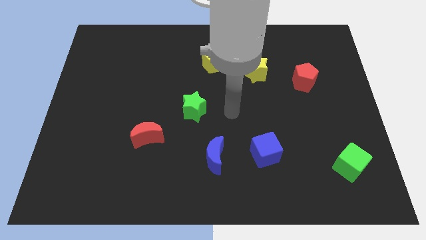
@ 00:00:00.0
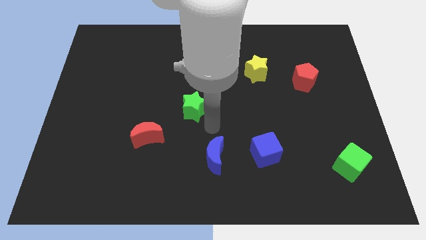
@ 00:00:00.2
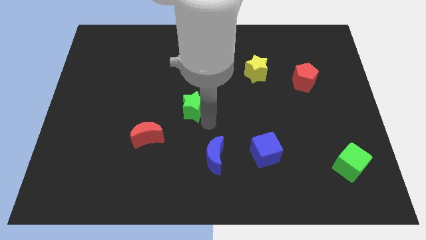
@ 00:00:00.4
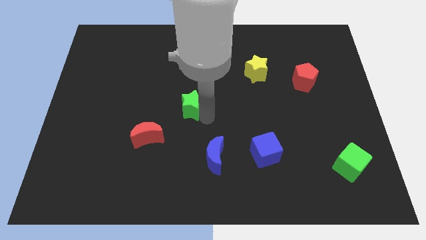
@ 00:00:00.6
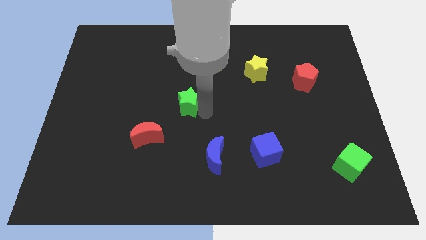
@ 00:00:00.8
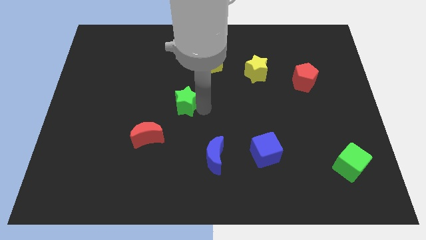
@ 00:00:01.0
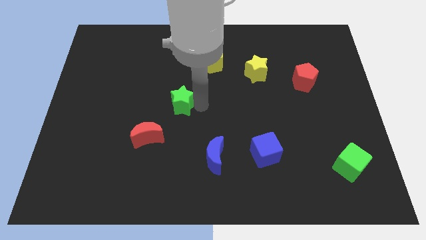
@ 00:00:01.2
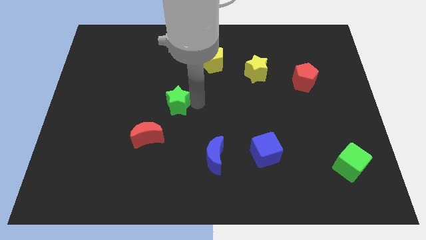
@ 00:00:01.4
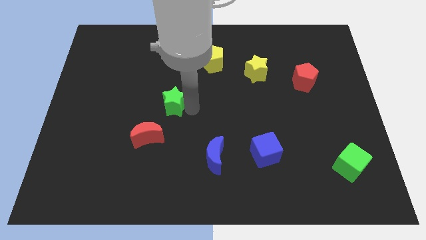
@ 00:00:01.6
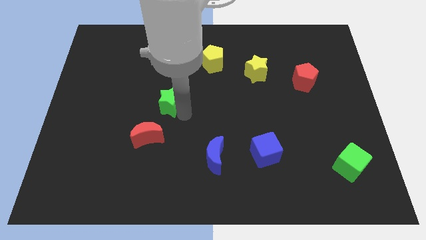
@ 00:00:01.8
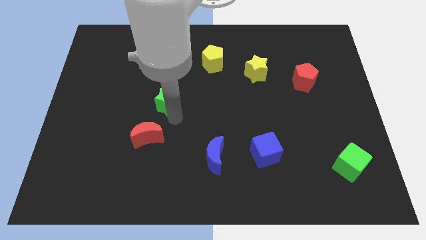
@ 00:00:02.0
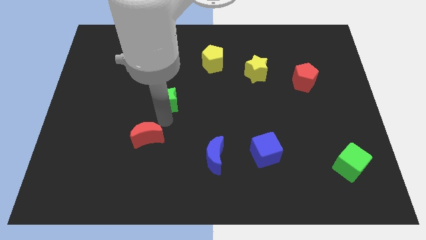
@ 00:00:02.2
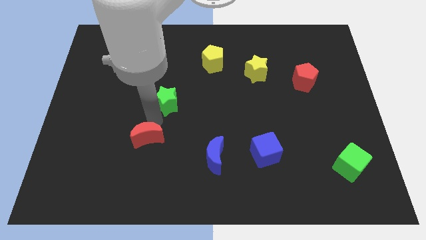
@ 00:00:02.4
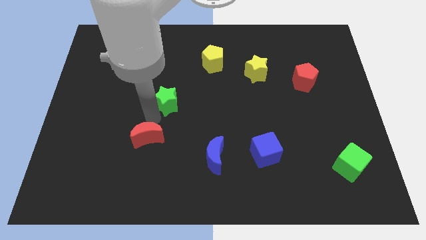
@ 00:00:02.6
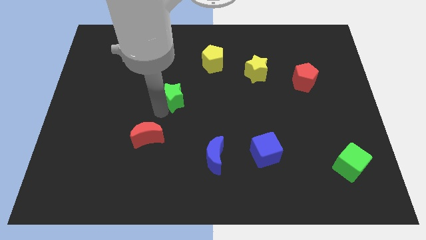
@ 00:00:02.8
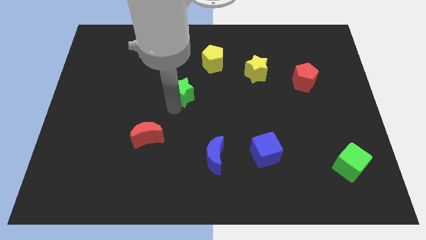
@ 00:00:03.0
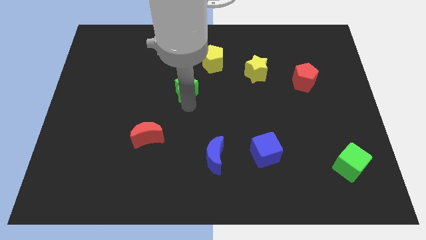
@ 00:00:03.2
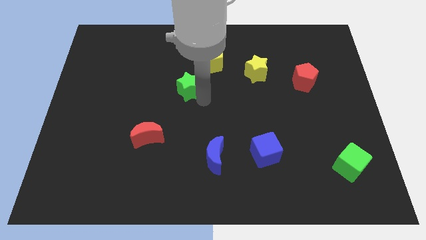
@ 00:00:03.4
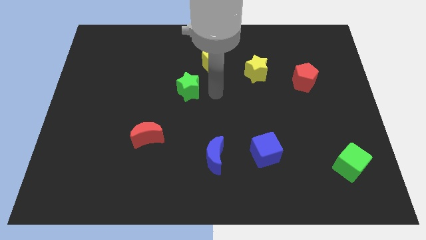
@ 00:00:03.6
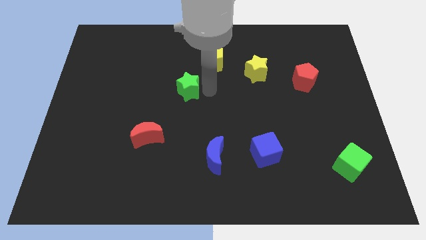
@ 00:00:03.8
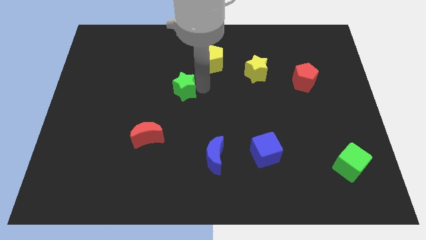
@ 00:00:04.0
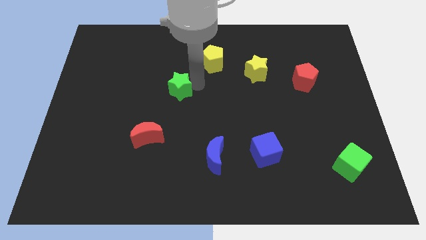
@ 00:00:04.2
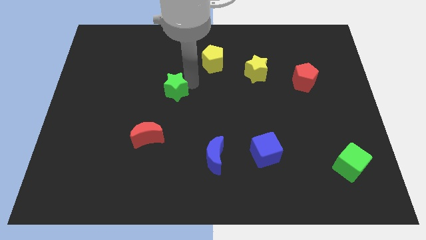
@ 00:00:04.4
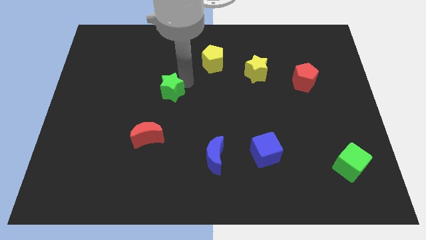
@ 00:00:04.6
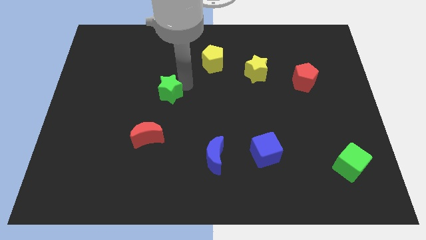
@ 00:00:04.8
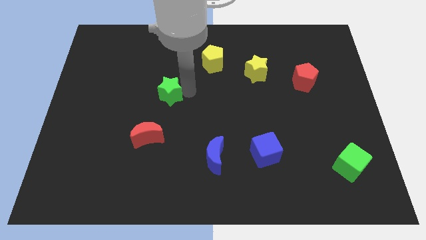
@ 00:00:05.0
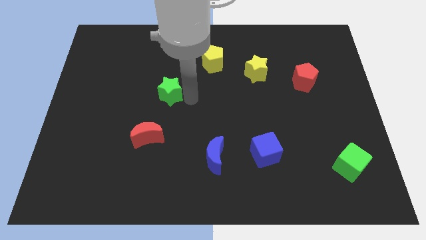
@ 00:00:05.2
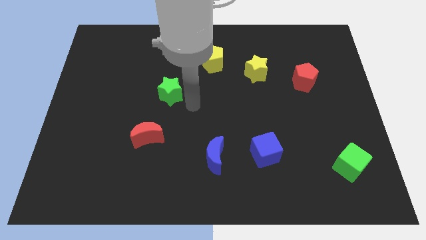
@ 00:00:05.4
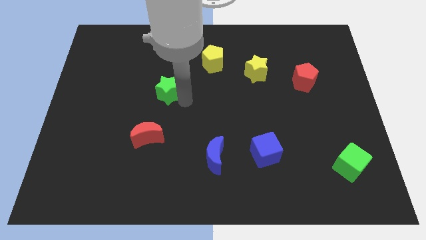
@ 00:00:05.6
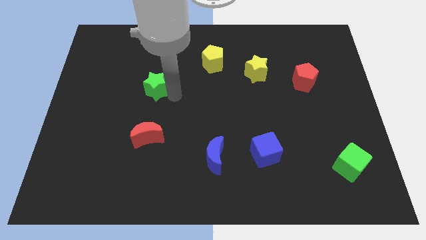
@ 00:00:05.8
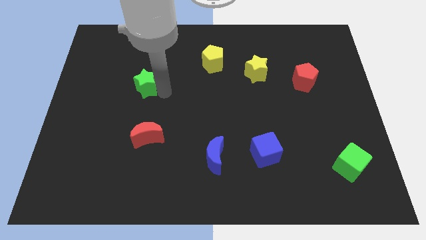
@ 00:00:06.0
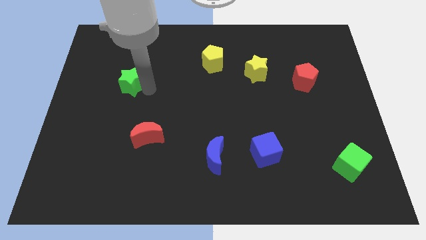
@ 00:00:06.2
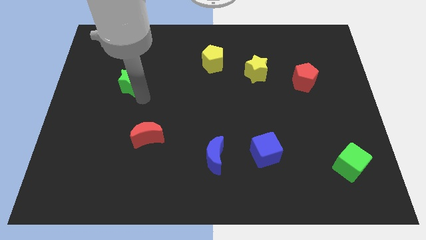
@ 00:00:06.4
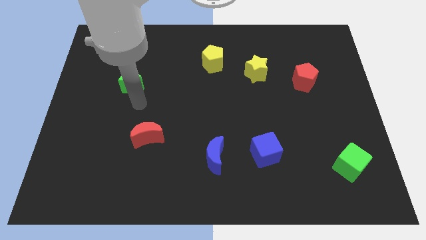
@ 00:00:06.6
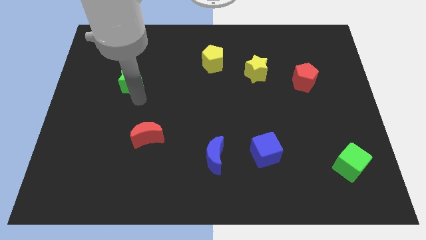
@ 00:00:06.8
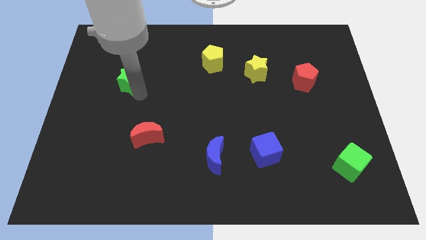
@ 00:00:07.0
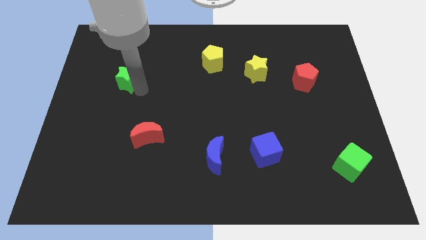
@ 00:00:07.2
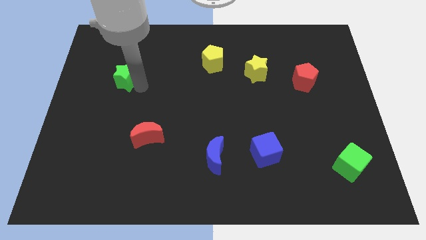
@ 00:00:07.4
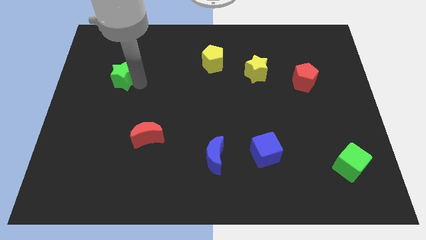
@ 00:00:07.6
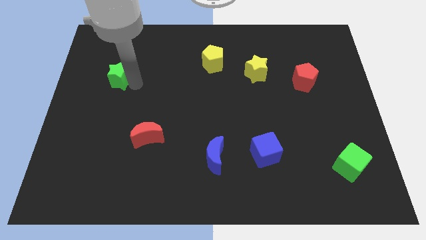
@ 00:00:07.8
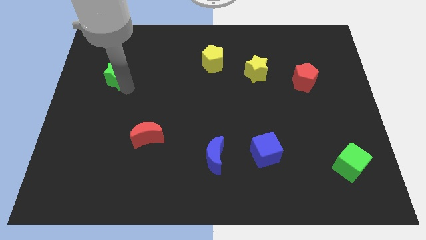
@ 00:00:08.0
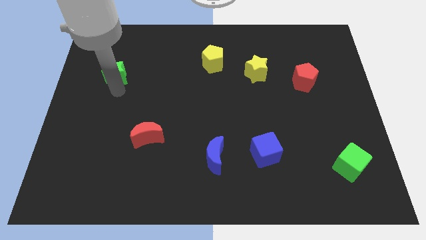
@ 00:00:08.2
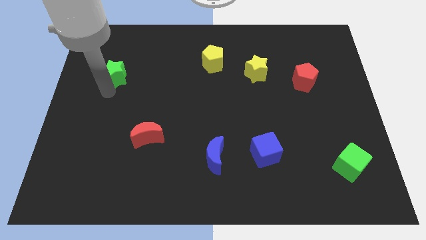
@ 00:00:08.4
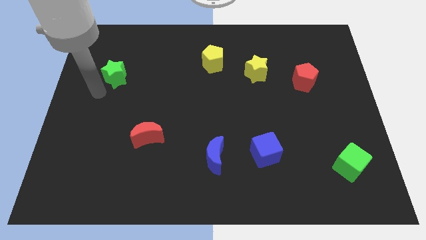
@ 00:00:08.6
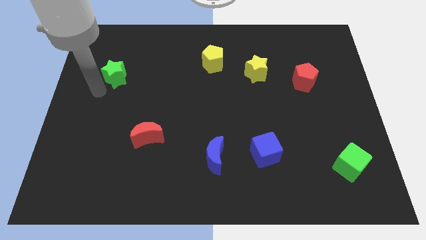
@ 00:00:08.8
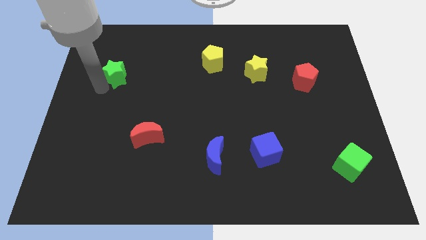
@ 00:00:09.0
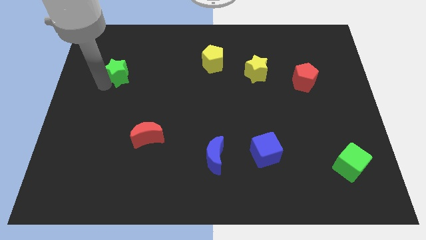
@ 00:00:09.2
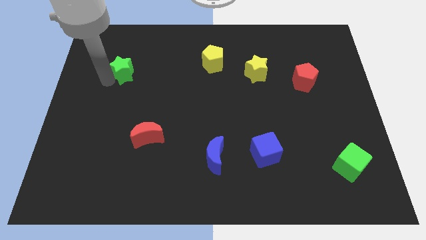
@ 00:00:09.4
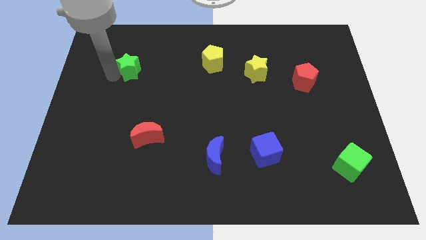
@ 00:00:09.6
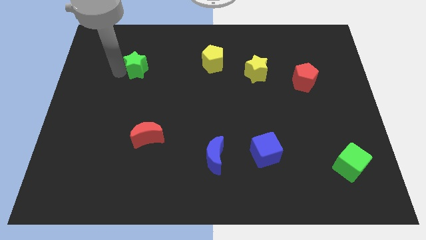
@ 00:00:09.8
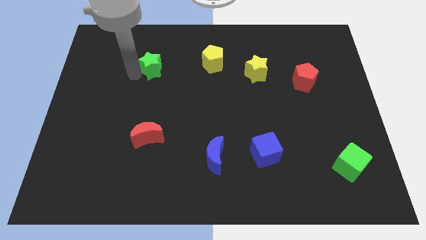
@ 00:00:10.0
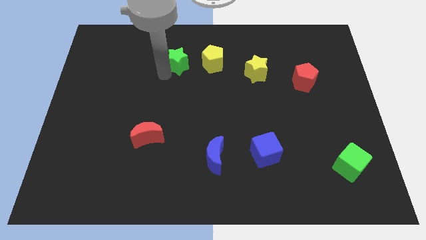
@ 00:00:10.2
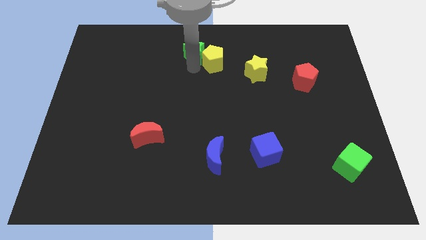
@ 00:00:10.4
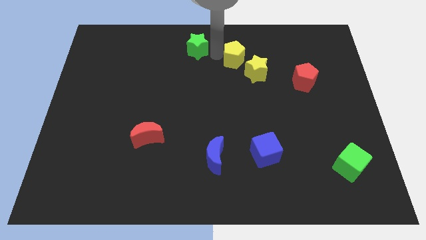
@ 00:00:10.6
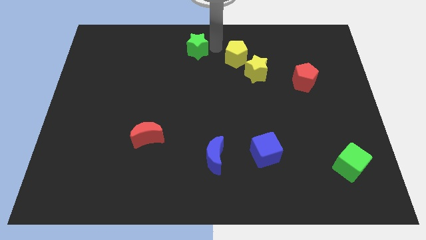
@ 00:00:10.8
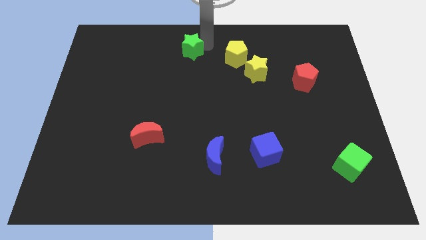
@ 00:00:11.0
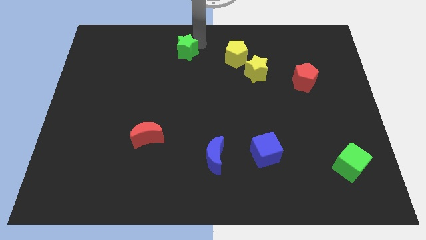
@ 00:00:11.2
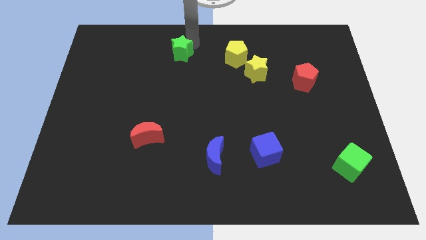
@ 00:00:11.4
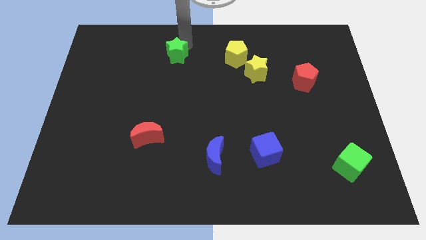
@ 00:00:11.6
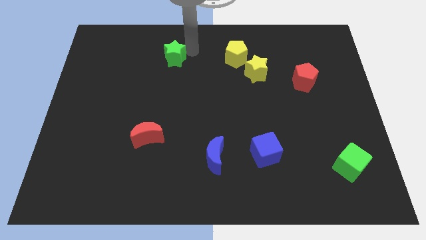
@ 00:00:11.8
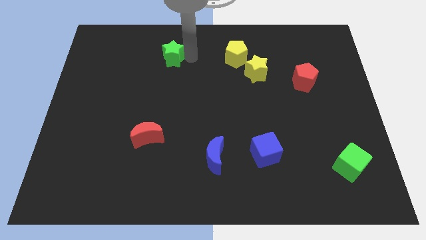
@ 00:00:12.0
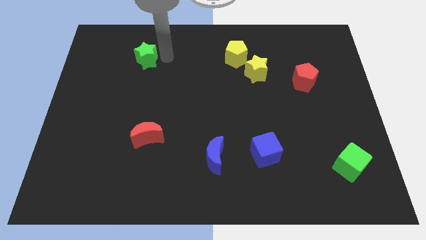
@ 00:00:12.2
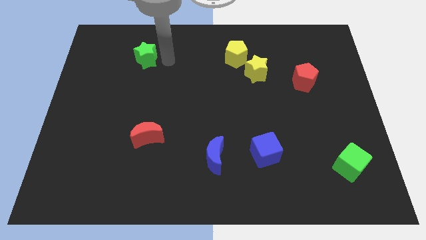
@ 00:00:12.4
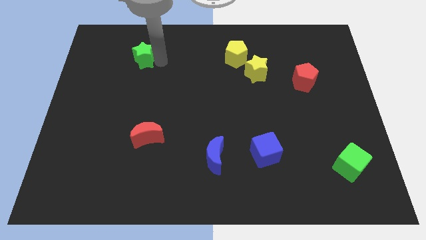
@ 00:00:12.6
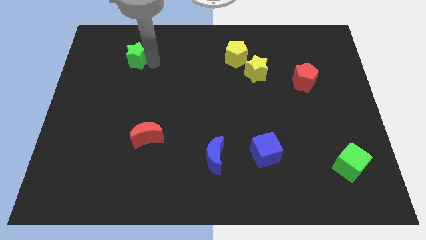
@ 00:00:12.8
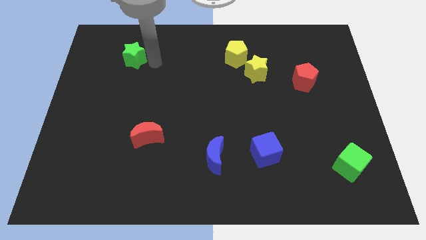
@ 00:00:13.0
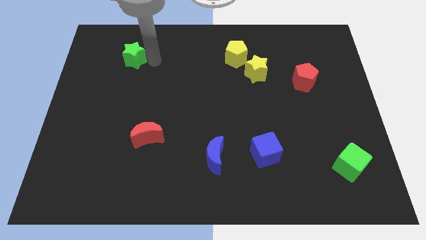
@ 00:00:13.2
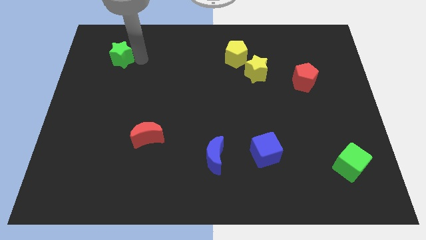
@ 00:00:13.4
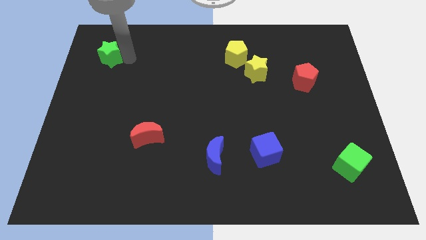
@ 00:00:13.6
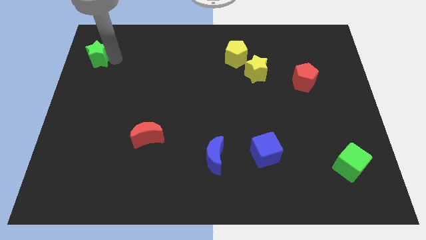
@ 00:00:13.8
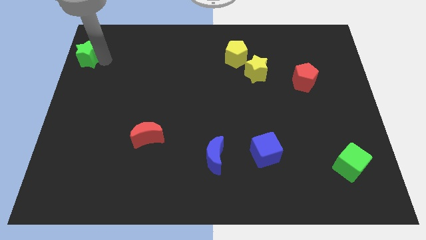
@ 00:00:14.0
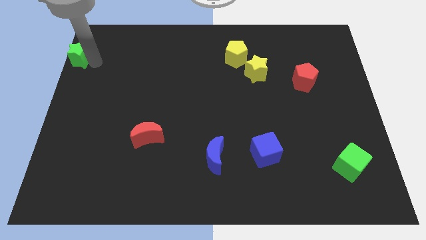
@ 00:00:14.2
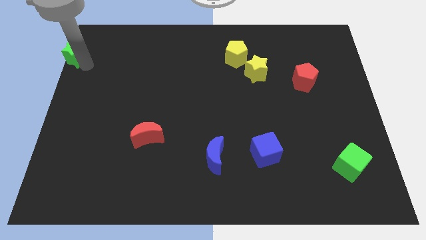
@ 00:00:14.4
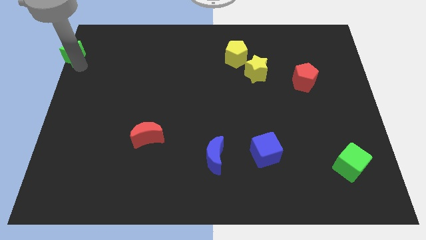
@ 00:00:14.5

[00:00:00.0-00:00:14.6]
move the green star to the top left corner
